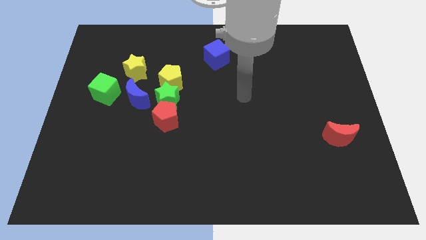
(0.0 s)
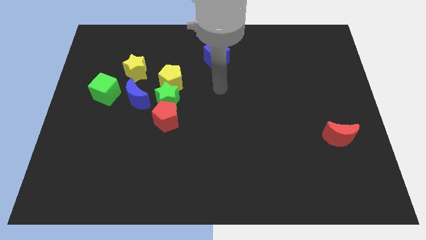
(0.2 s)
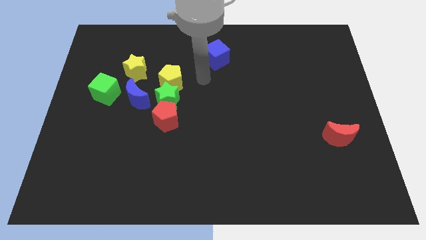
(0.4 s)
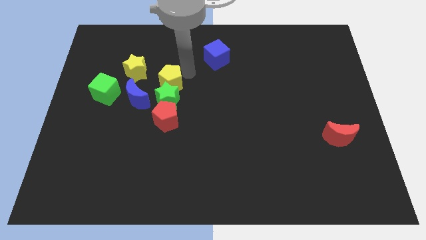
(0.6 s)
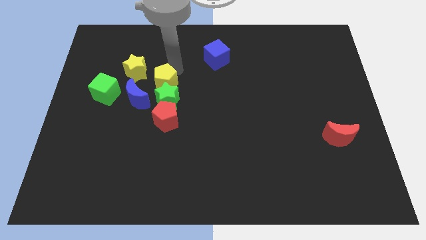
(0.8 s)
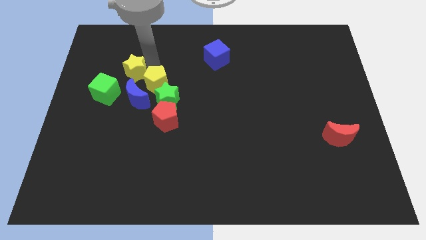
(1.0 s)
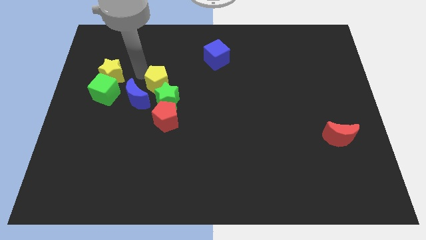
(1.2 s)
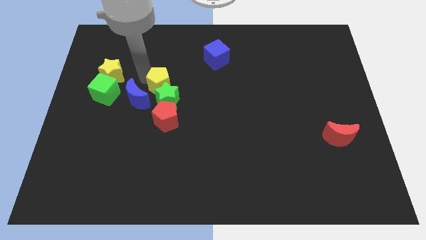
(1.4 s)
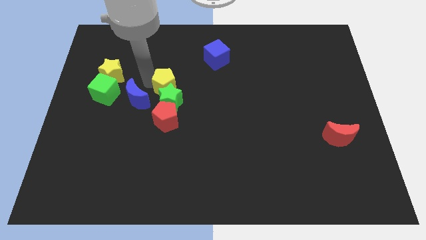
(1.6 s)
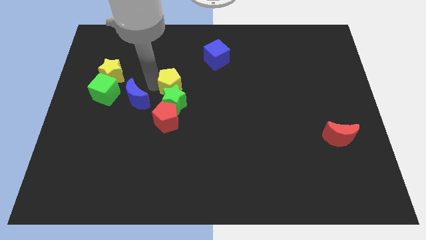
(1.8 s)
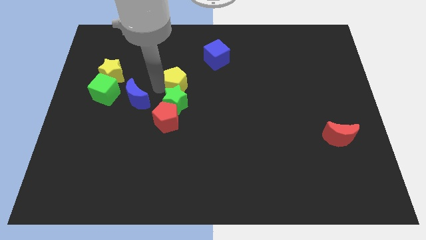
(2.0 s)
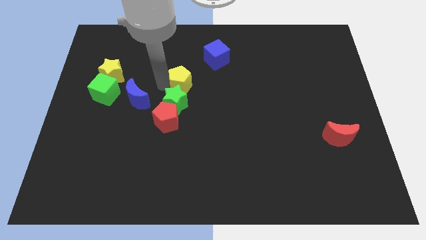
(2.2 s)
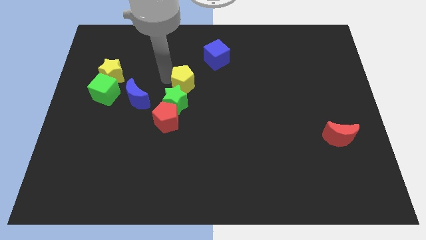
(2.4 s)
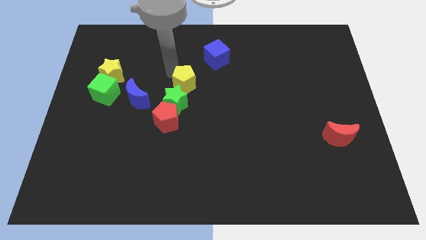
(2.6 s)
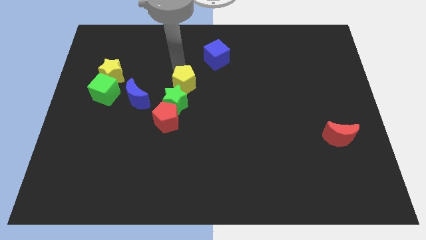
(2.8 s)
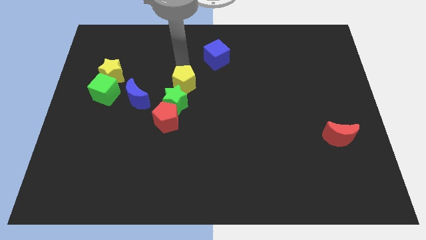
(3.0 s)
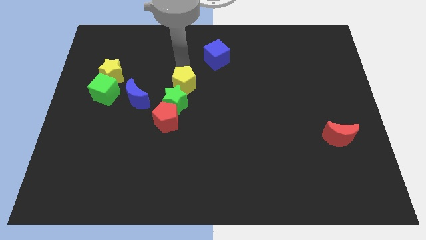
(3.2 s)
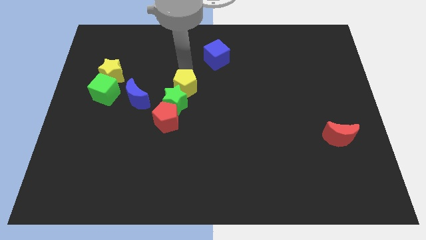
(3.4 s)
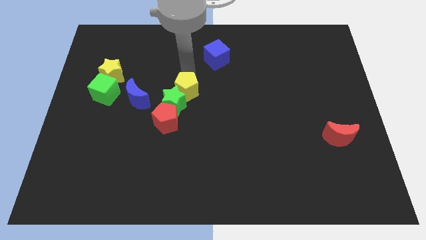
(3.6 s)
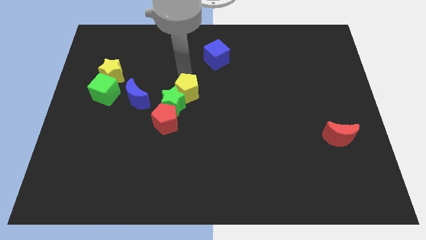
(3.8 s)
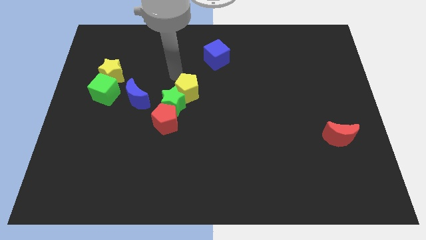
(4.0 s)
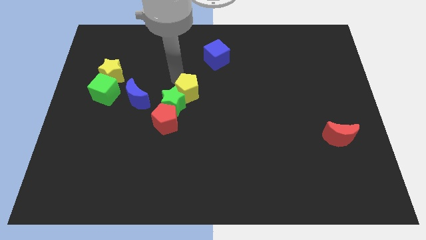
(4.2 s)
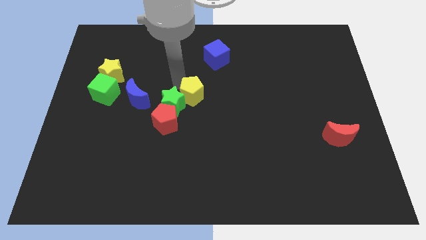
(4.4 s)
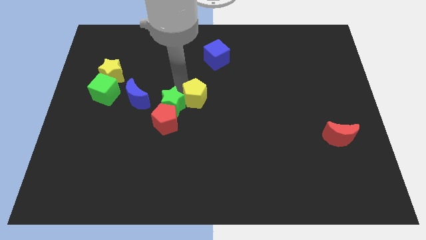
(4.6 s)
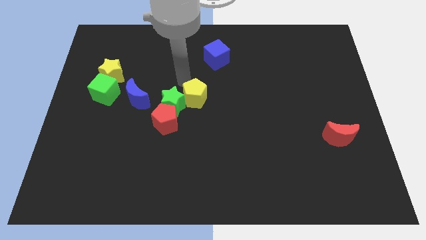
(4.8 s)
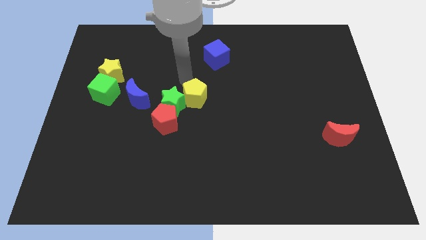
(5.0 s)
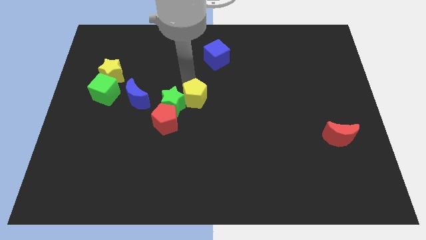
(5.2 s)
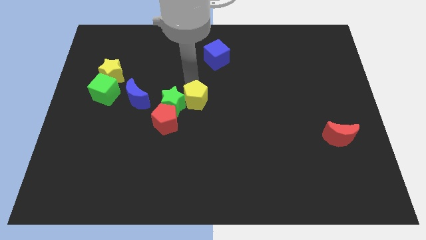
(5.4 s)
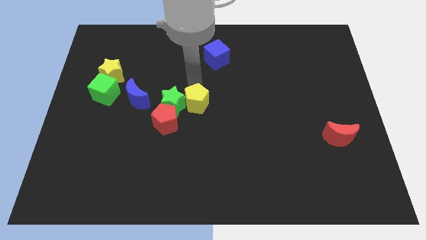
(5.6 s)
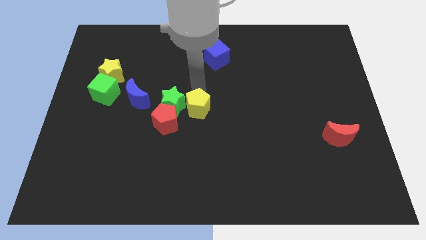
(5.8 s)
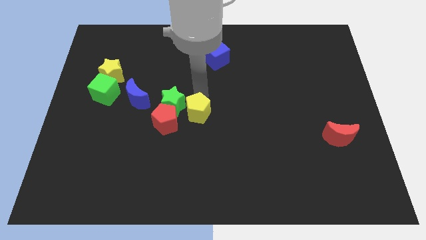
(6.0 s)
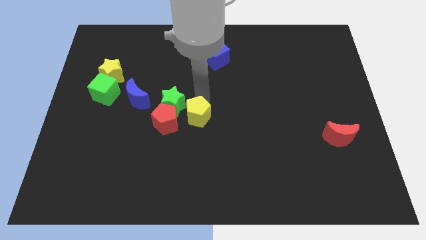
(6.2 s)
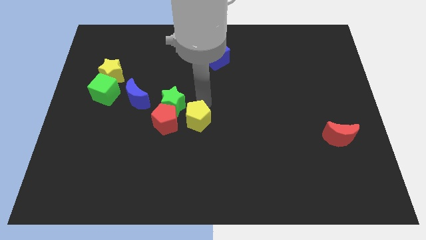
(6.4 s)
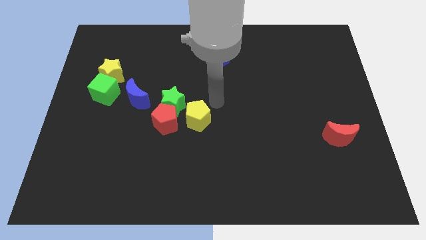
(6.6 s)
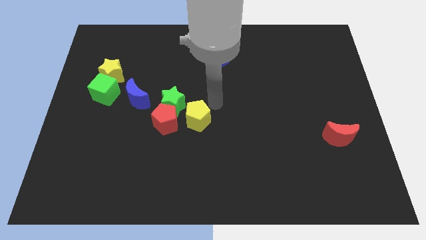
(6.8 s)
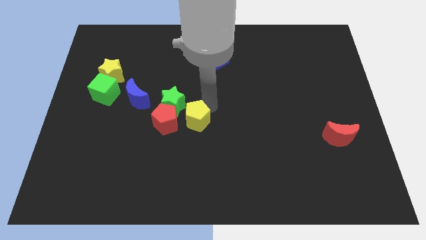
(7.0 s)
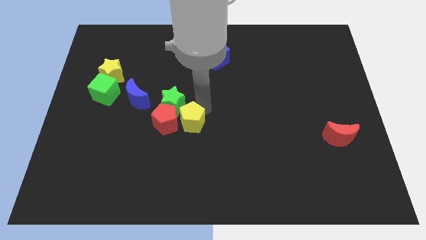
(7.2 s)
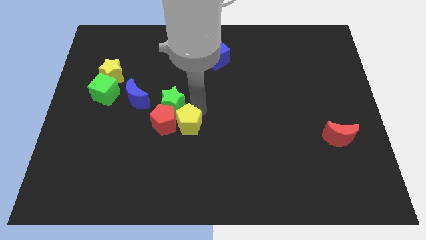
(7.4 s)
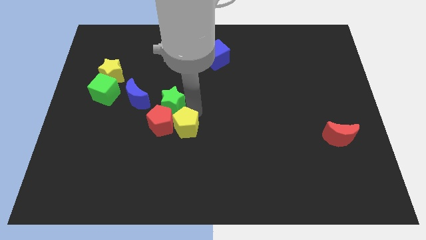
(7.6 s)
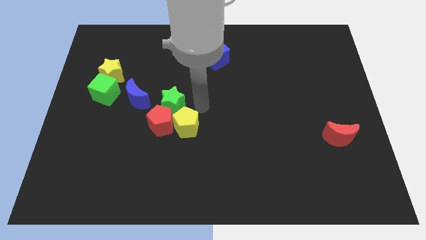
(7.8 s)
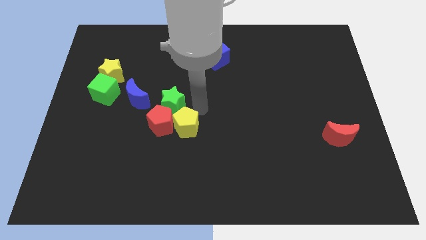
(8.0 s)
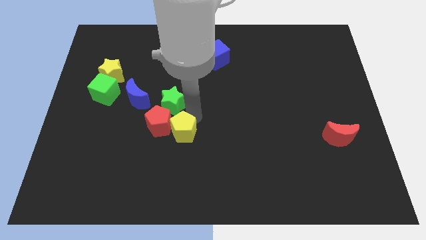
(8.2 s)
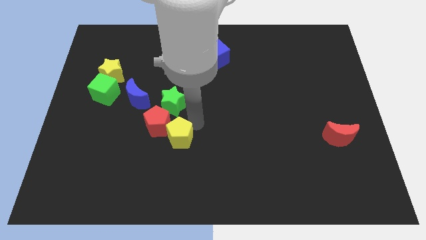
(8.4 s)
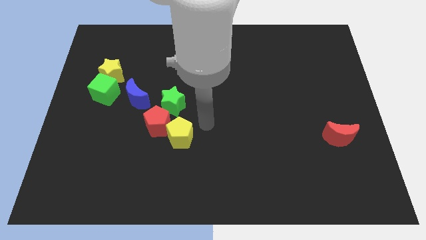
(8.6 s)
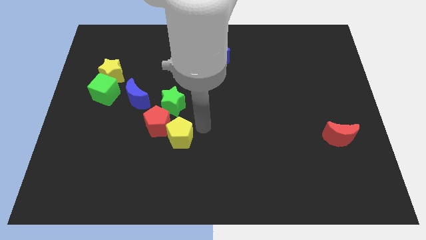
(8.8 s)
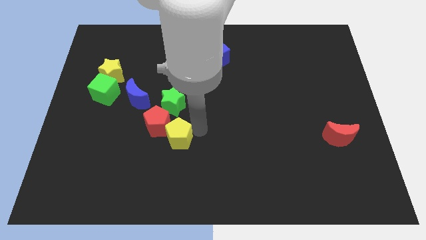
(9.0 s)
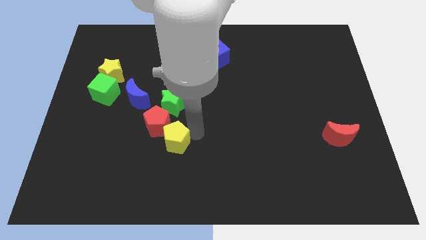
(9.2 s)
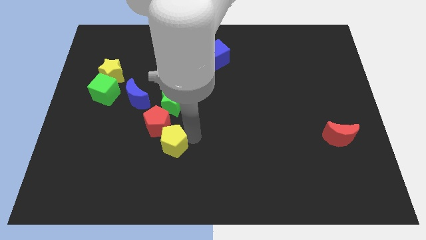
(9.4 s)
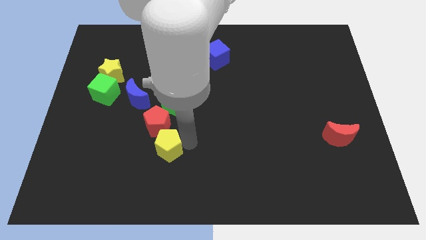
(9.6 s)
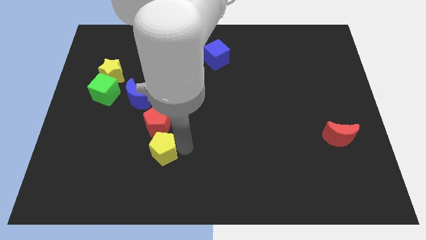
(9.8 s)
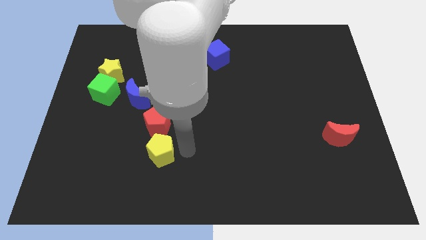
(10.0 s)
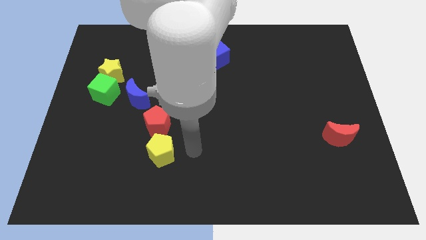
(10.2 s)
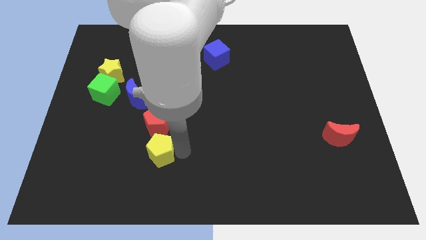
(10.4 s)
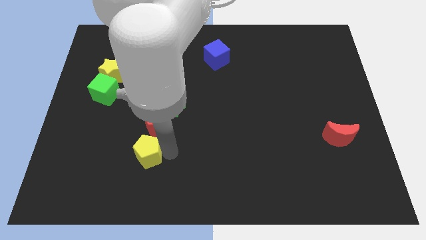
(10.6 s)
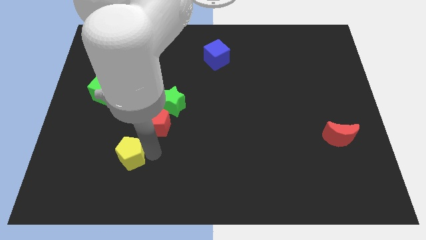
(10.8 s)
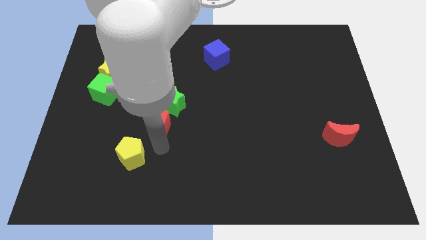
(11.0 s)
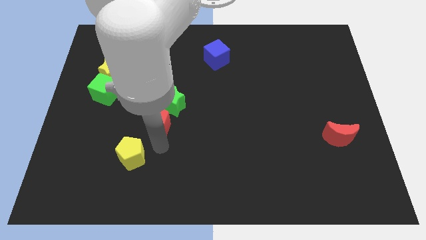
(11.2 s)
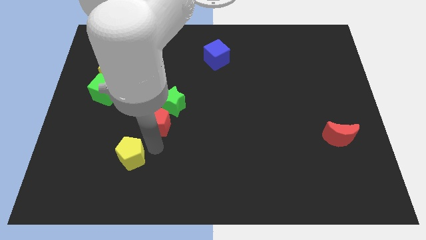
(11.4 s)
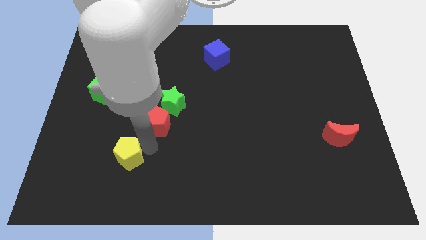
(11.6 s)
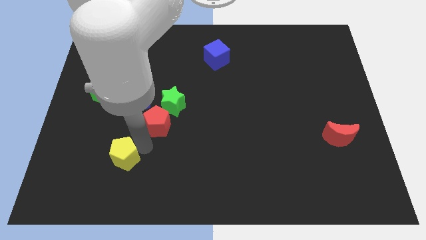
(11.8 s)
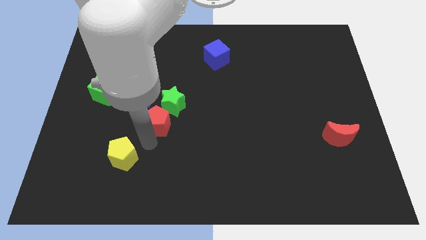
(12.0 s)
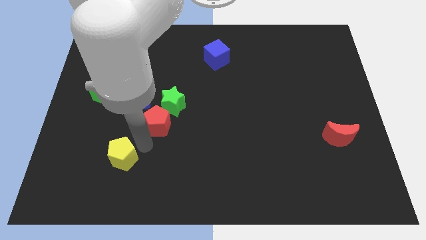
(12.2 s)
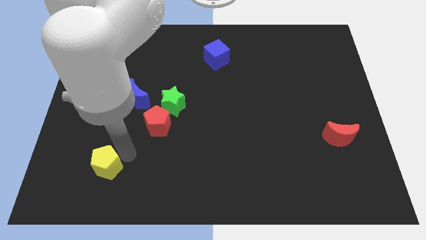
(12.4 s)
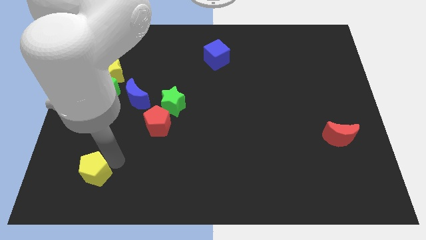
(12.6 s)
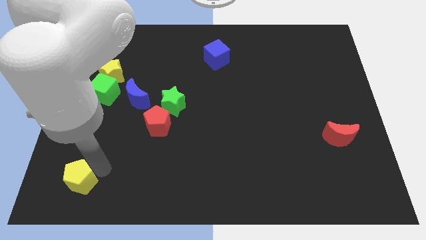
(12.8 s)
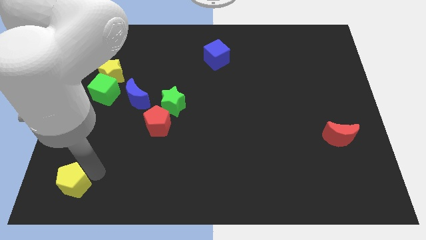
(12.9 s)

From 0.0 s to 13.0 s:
move the yellow pentagon to the lower left corner

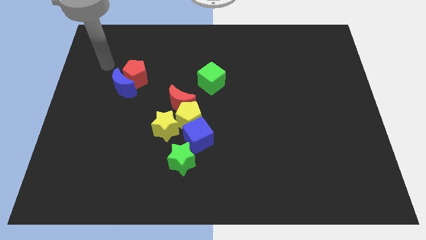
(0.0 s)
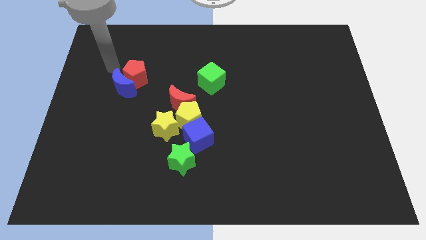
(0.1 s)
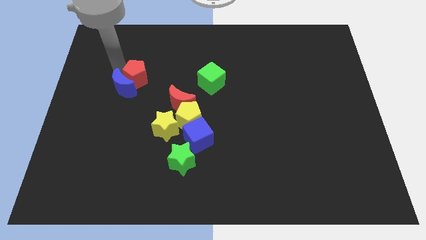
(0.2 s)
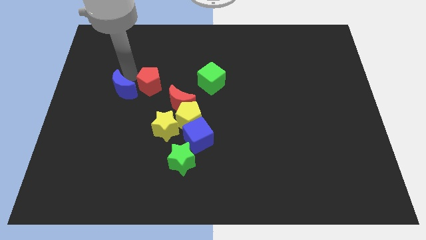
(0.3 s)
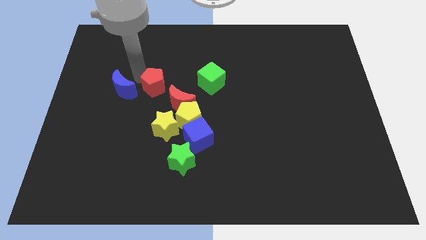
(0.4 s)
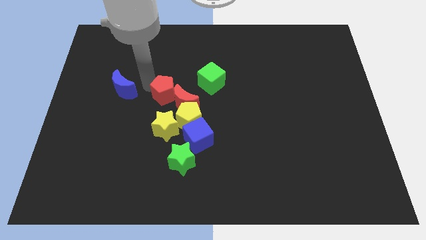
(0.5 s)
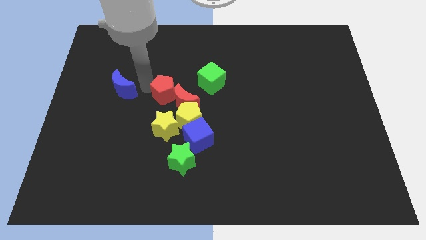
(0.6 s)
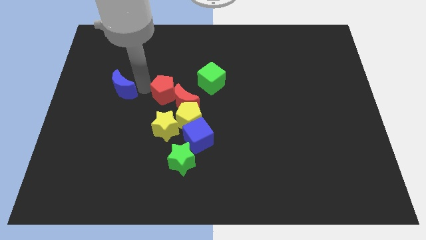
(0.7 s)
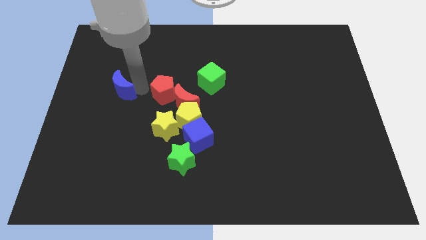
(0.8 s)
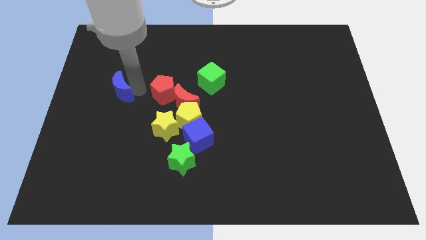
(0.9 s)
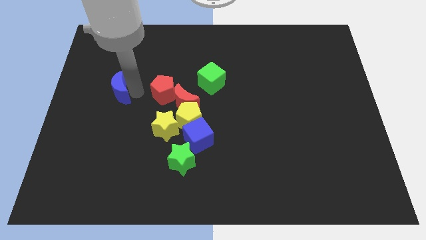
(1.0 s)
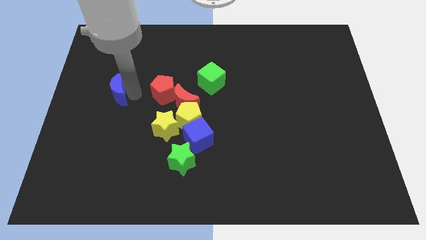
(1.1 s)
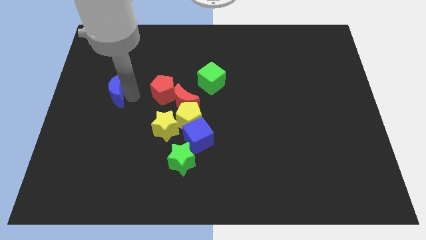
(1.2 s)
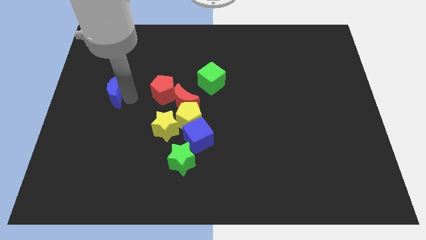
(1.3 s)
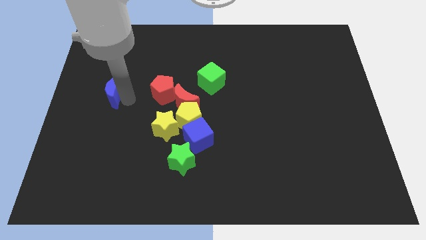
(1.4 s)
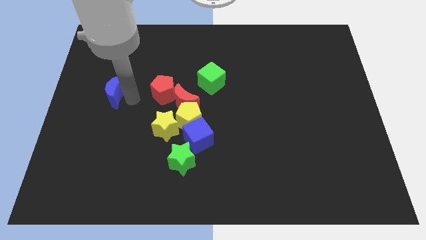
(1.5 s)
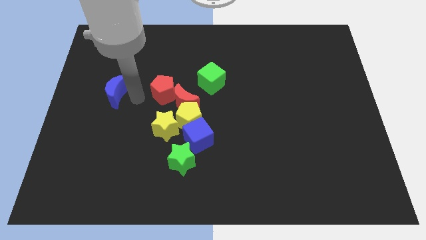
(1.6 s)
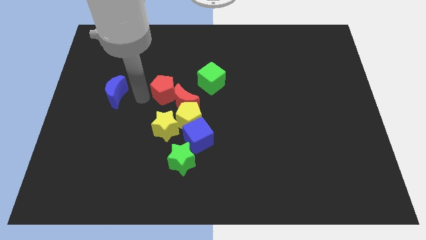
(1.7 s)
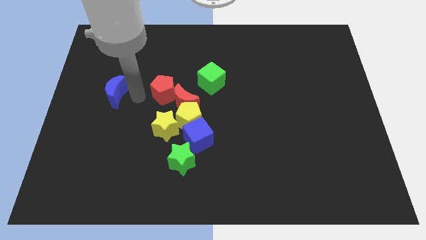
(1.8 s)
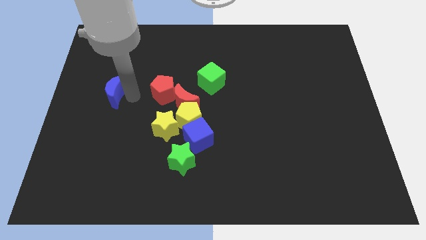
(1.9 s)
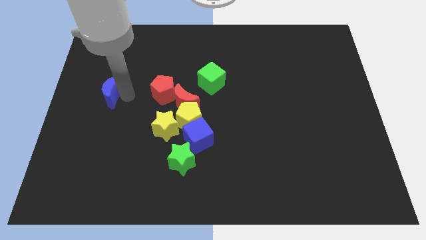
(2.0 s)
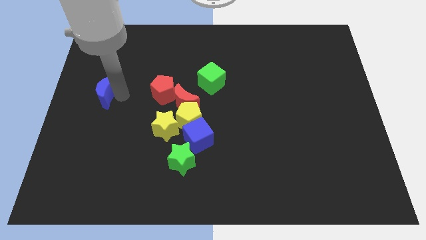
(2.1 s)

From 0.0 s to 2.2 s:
slide the blue moon to the center left
